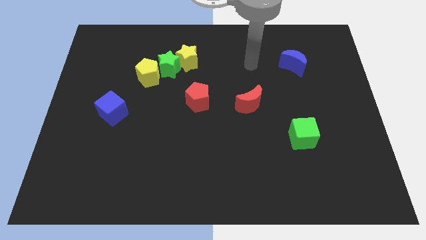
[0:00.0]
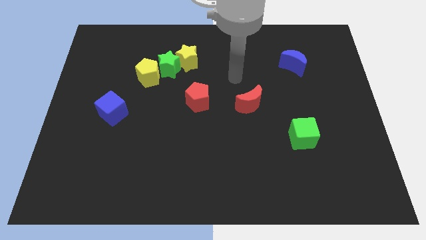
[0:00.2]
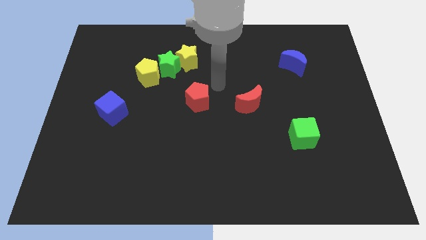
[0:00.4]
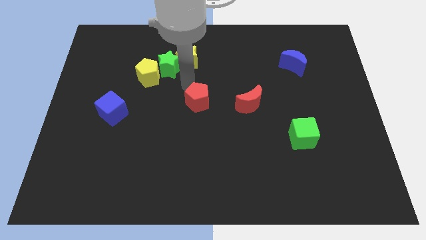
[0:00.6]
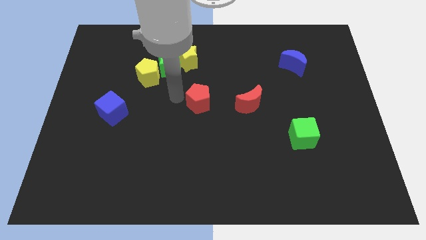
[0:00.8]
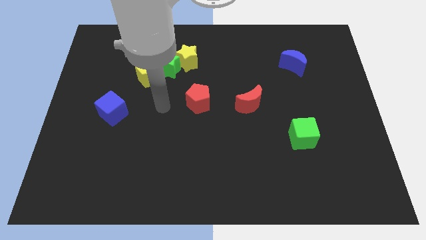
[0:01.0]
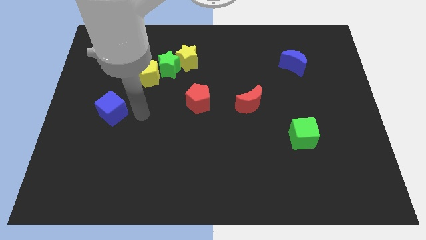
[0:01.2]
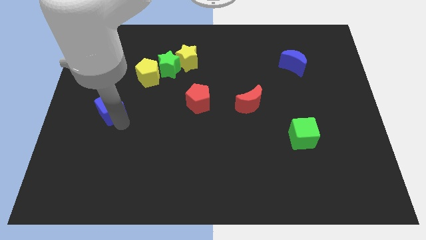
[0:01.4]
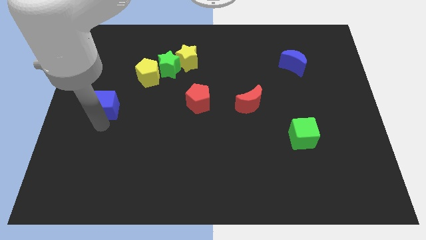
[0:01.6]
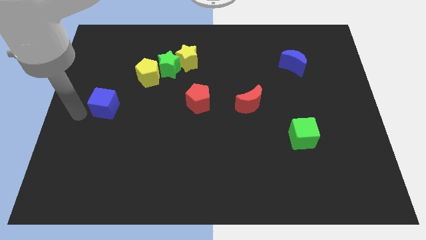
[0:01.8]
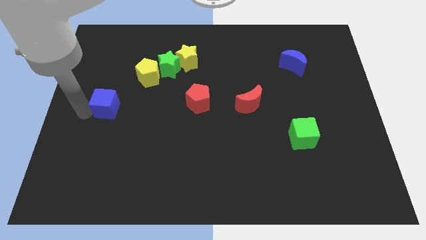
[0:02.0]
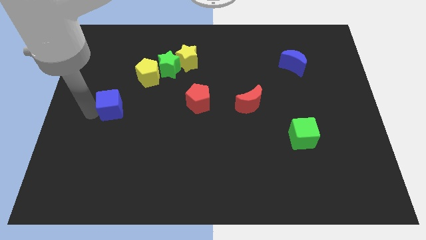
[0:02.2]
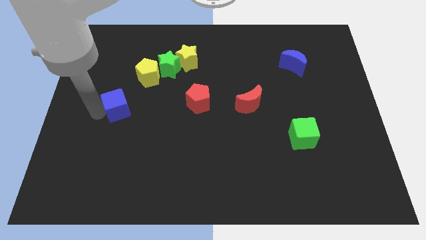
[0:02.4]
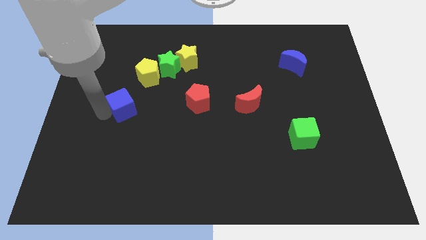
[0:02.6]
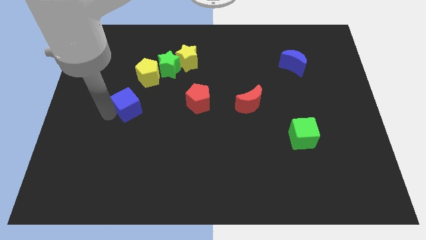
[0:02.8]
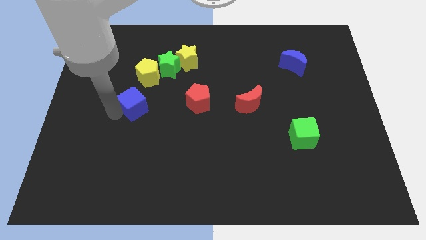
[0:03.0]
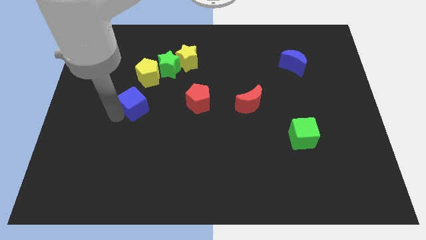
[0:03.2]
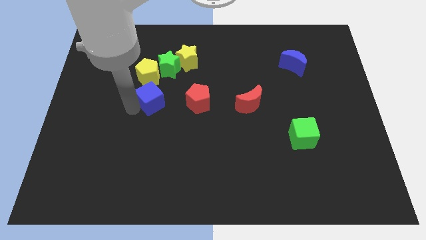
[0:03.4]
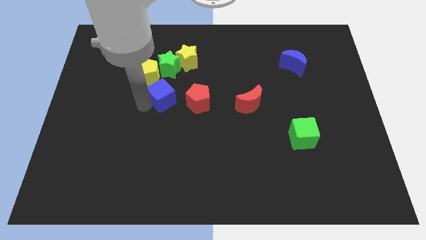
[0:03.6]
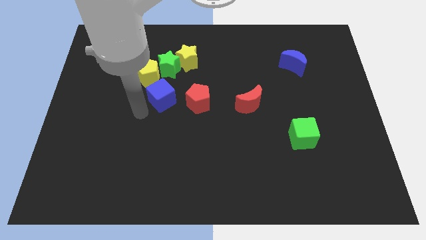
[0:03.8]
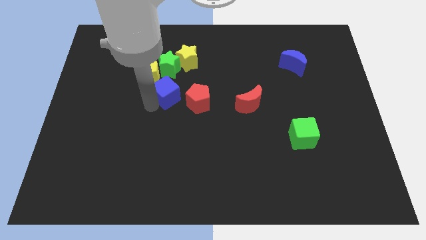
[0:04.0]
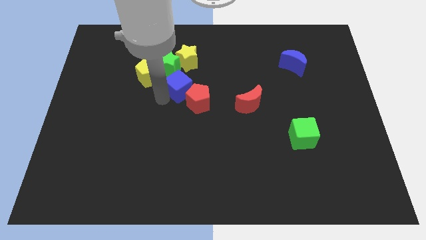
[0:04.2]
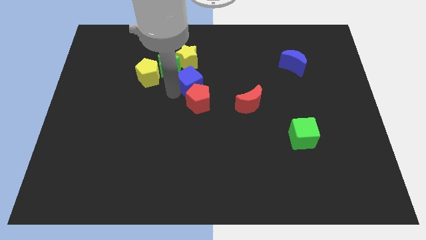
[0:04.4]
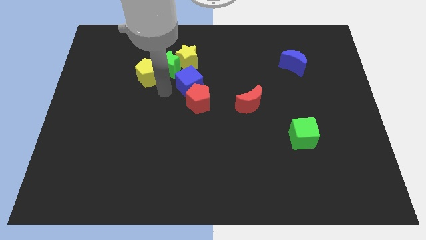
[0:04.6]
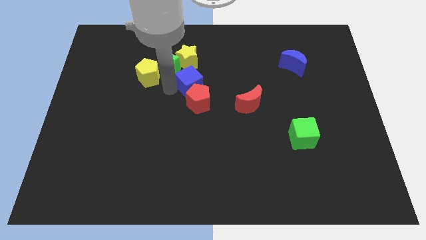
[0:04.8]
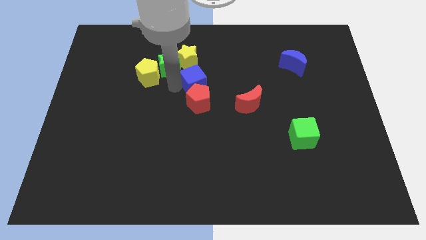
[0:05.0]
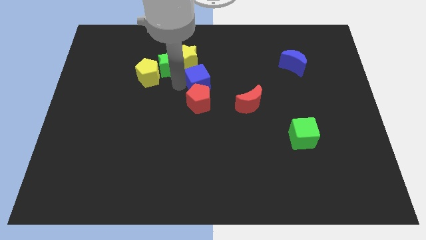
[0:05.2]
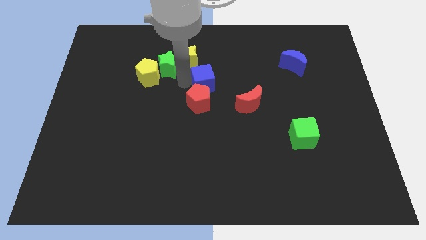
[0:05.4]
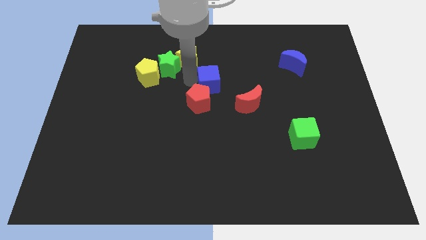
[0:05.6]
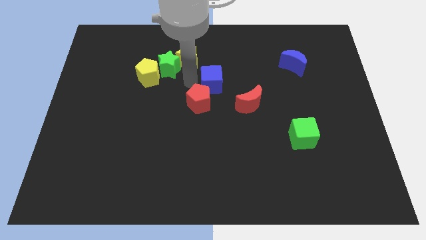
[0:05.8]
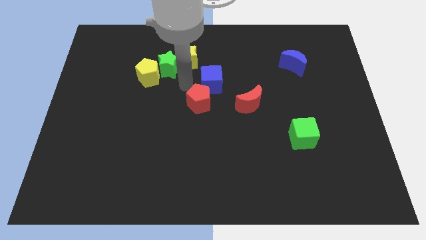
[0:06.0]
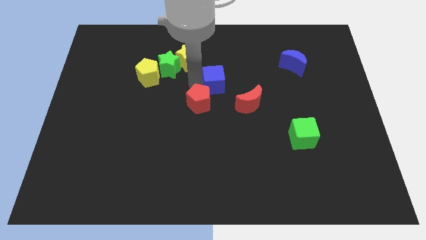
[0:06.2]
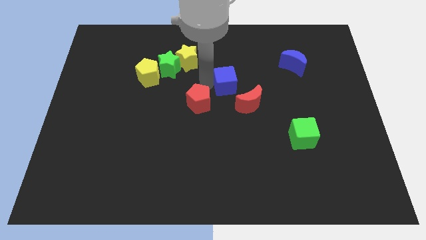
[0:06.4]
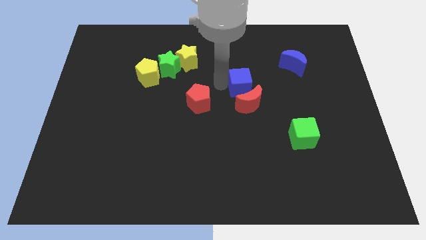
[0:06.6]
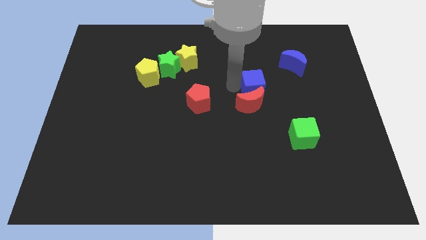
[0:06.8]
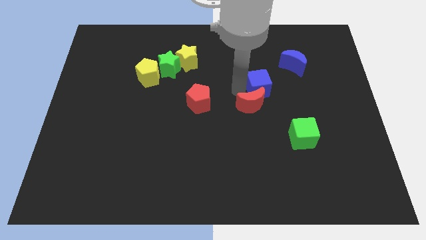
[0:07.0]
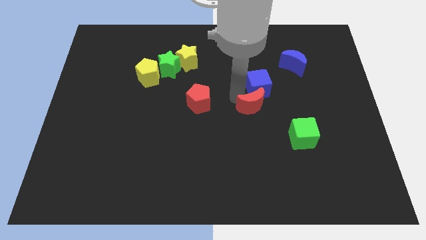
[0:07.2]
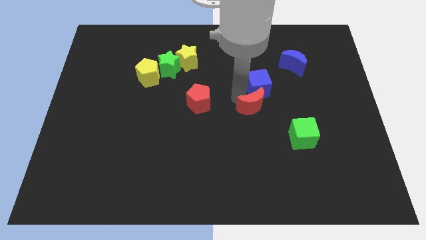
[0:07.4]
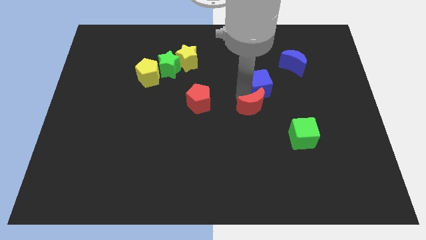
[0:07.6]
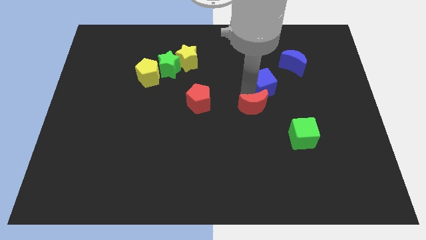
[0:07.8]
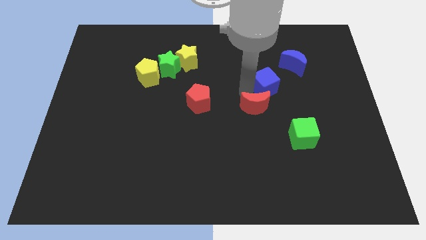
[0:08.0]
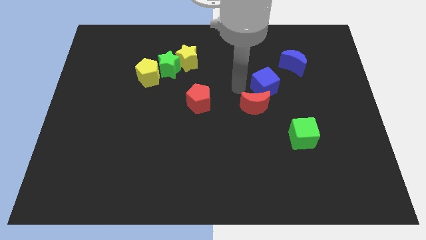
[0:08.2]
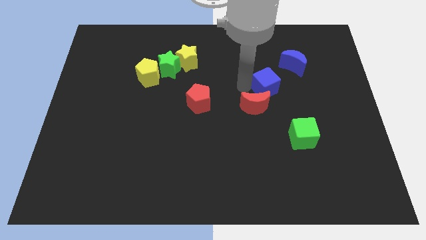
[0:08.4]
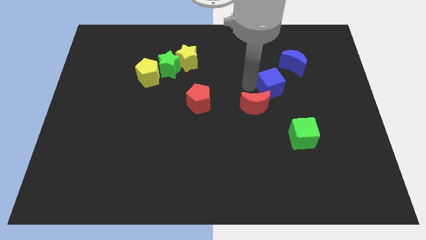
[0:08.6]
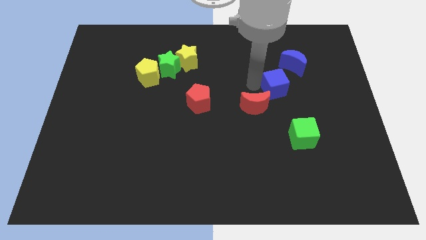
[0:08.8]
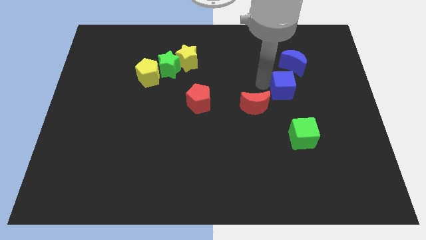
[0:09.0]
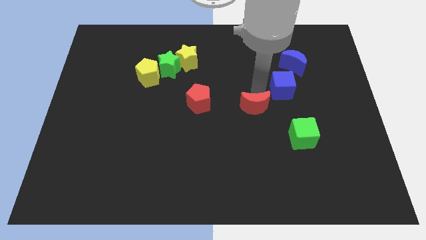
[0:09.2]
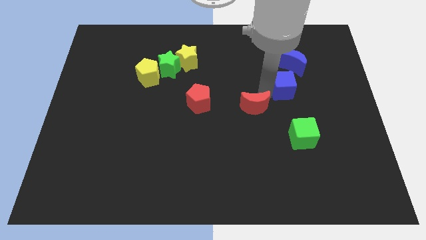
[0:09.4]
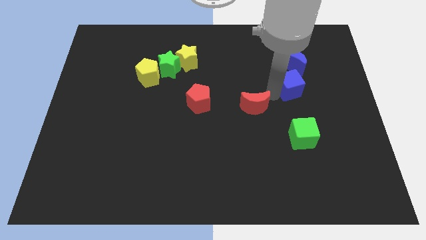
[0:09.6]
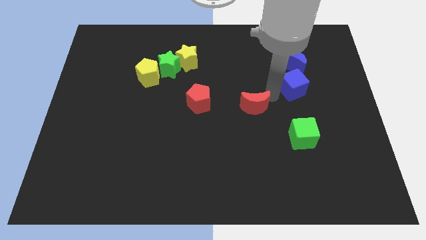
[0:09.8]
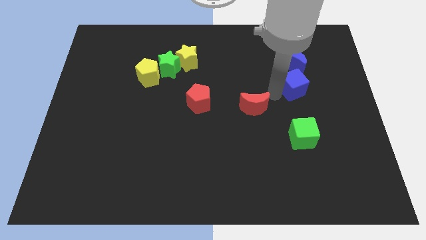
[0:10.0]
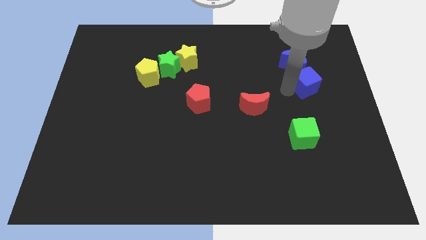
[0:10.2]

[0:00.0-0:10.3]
push the blue cube diagonally down and to the right of the blue moon

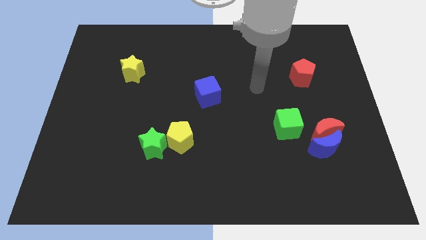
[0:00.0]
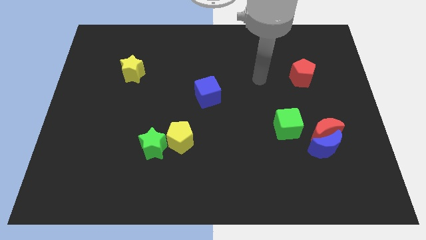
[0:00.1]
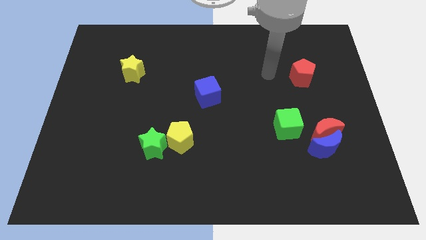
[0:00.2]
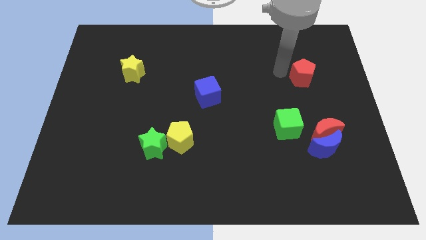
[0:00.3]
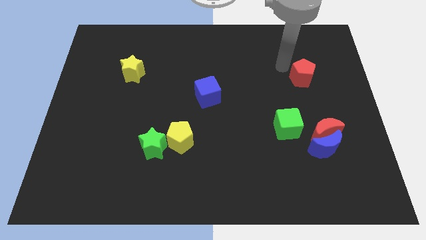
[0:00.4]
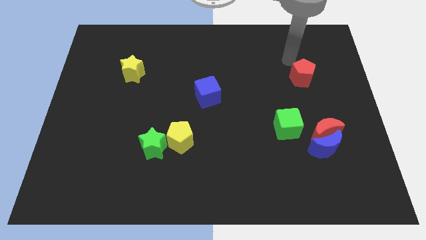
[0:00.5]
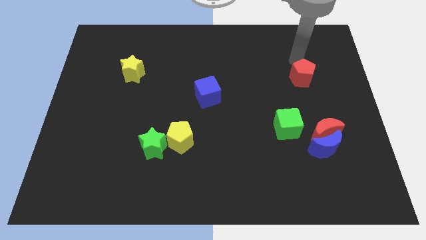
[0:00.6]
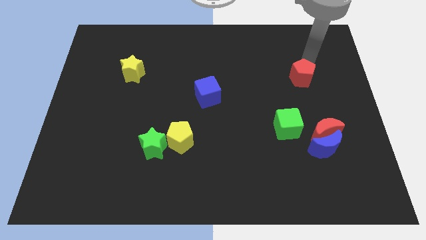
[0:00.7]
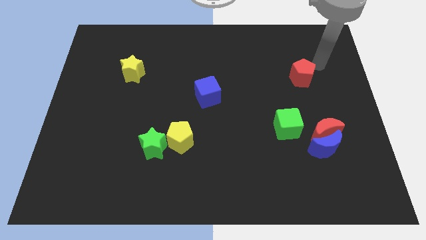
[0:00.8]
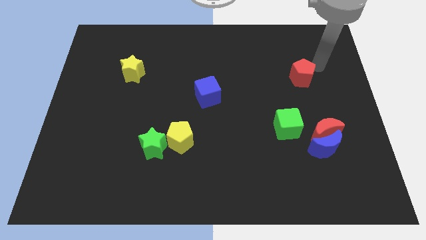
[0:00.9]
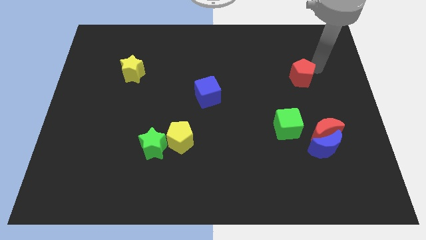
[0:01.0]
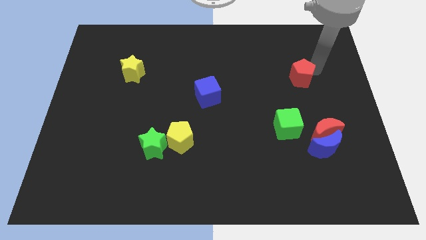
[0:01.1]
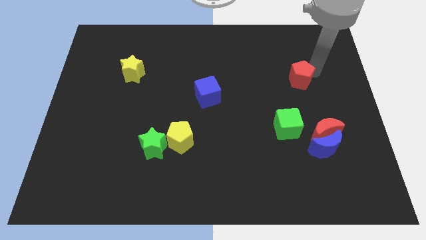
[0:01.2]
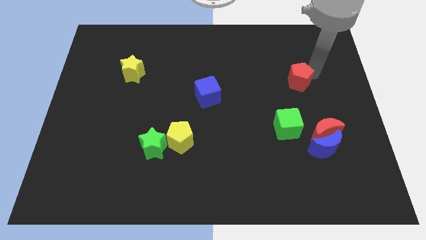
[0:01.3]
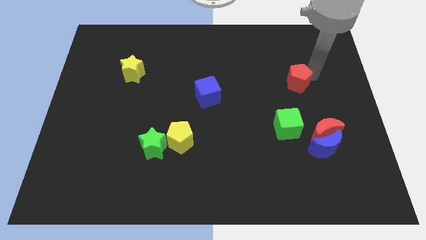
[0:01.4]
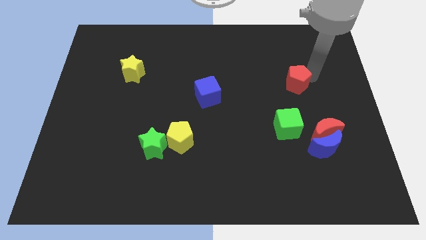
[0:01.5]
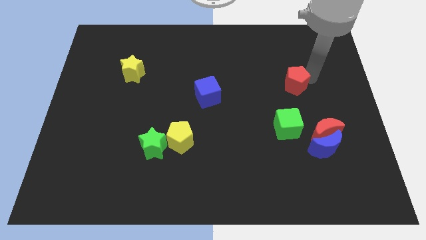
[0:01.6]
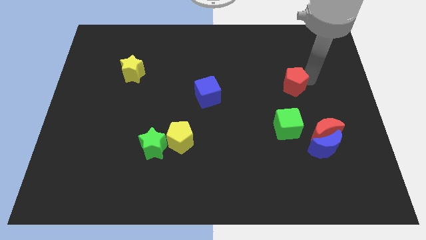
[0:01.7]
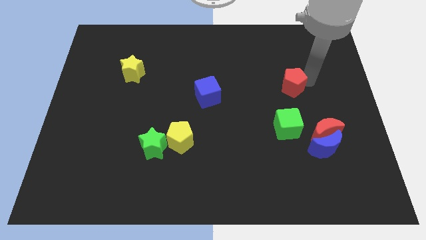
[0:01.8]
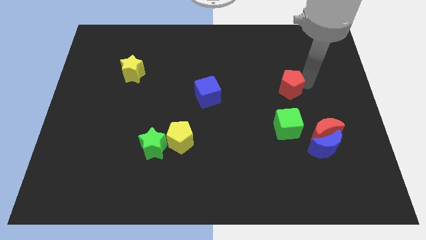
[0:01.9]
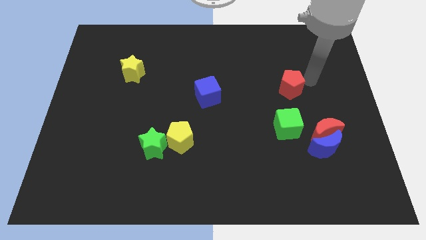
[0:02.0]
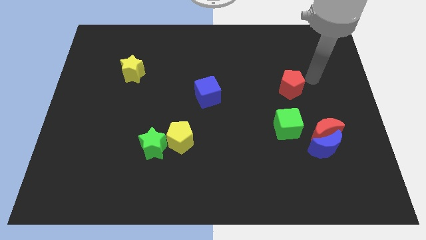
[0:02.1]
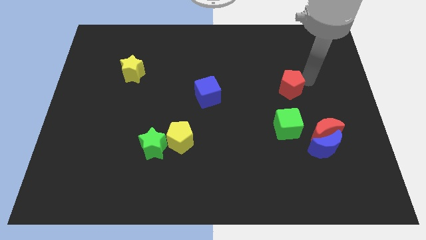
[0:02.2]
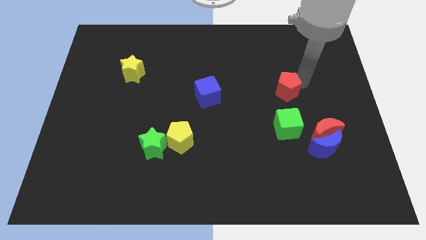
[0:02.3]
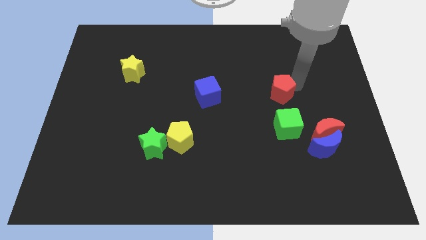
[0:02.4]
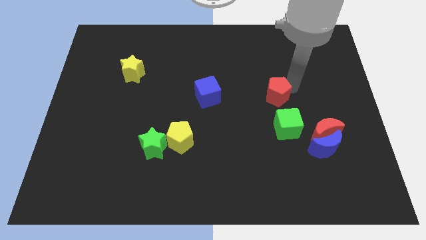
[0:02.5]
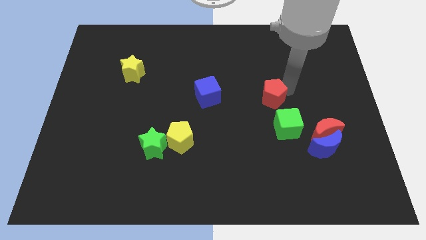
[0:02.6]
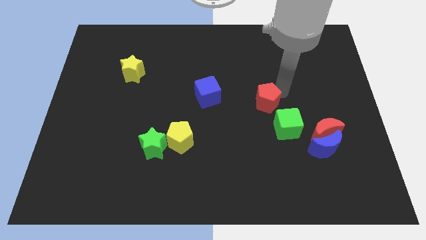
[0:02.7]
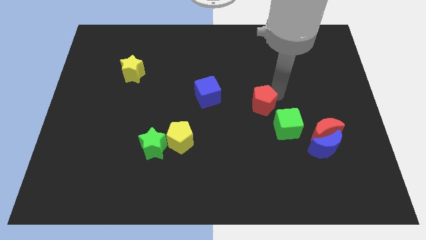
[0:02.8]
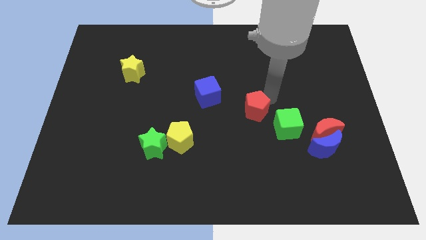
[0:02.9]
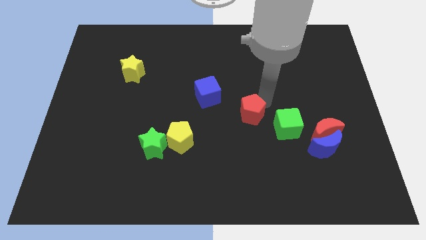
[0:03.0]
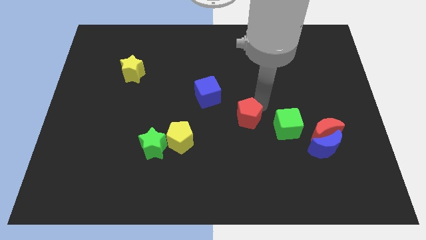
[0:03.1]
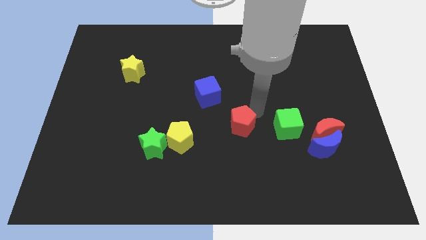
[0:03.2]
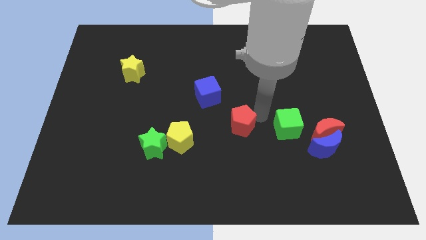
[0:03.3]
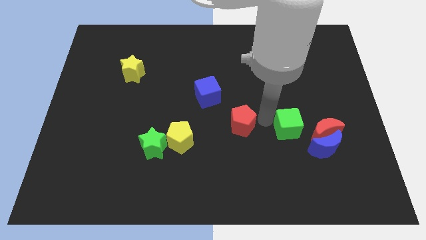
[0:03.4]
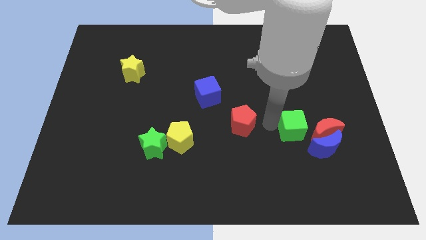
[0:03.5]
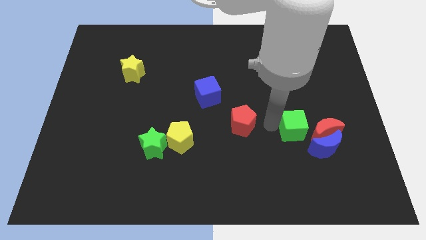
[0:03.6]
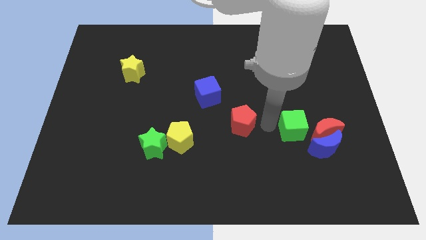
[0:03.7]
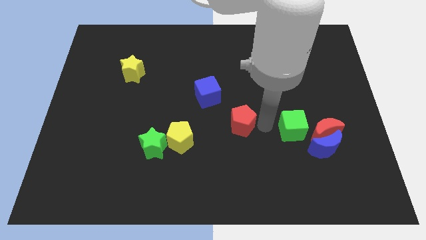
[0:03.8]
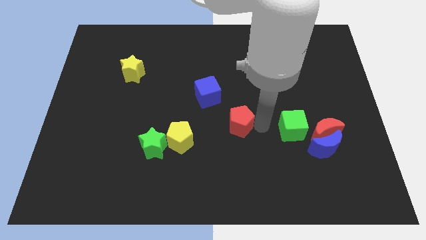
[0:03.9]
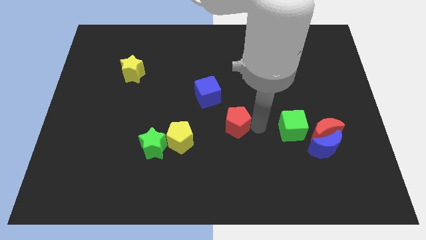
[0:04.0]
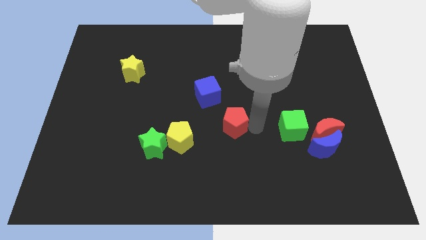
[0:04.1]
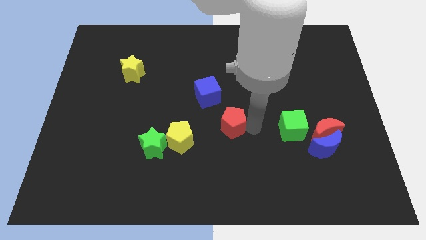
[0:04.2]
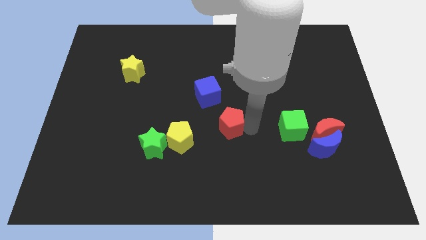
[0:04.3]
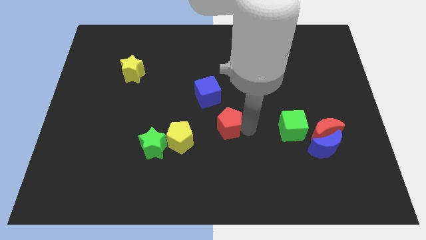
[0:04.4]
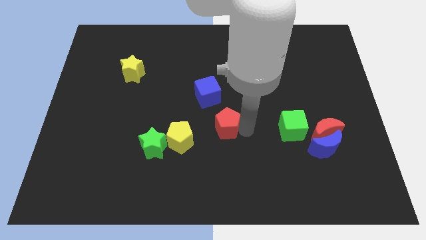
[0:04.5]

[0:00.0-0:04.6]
push the red pentagon to the bottom of the blue cube
